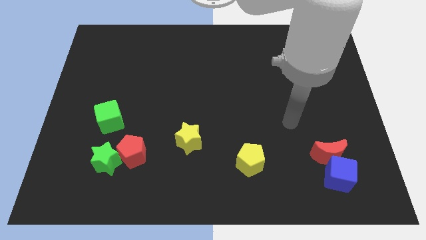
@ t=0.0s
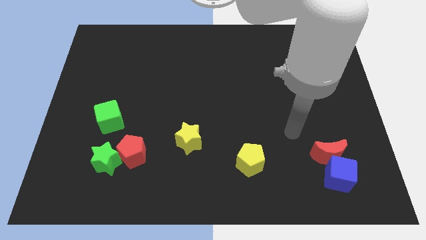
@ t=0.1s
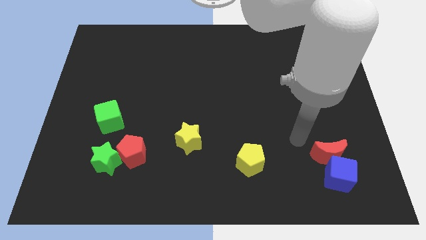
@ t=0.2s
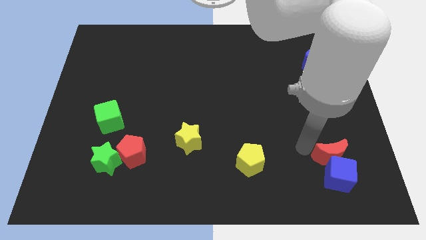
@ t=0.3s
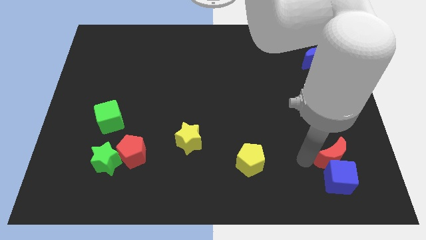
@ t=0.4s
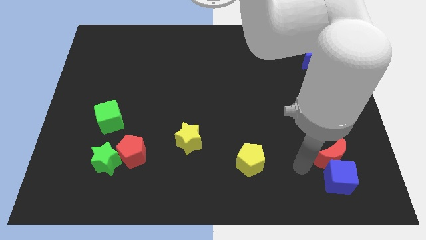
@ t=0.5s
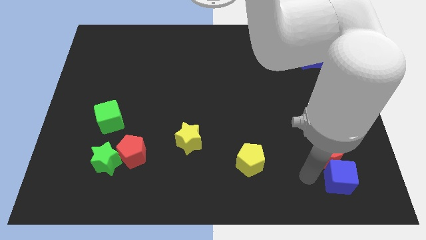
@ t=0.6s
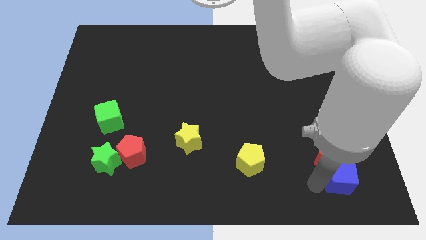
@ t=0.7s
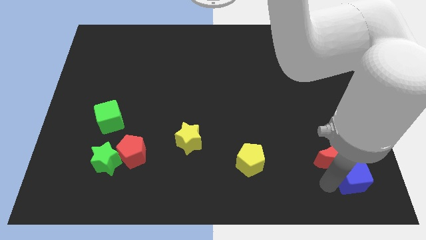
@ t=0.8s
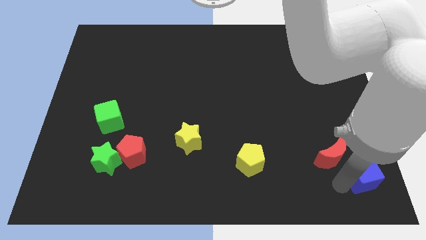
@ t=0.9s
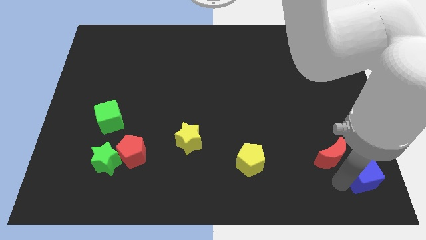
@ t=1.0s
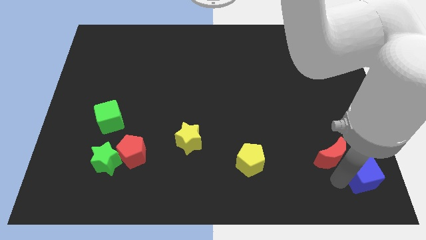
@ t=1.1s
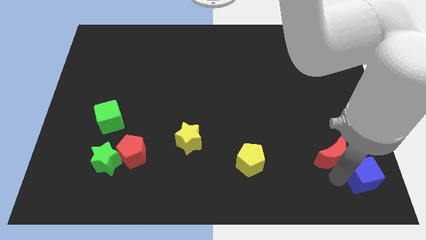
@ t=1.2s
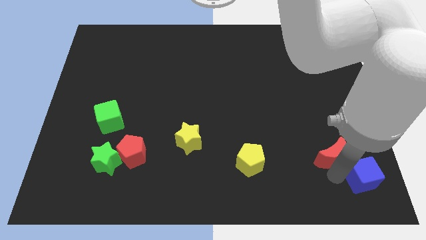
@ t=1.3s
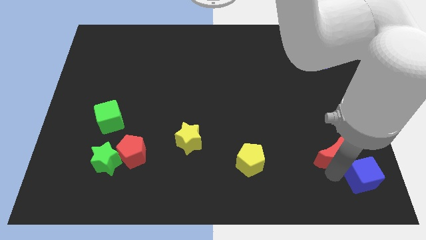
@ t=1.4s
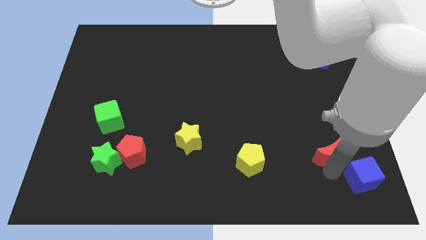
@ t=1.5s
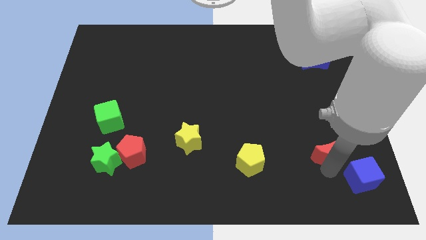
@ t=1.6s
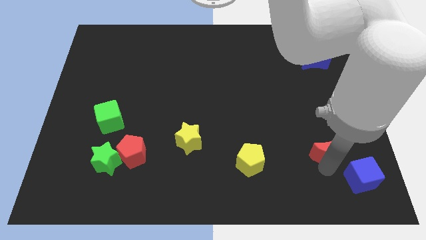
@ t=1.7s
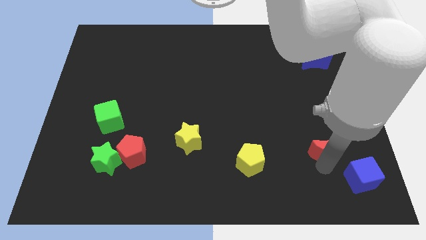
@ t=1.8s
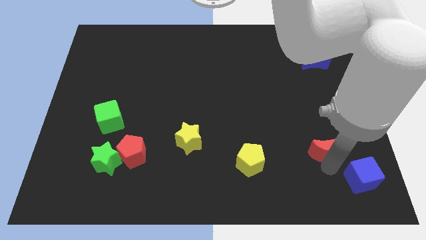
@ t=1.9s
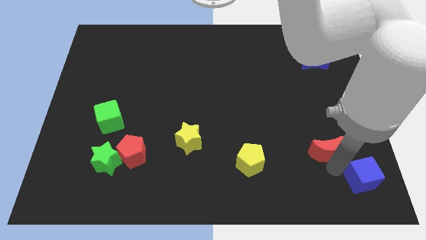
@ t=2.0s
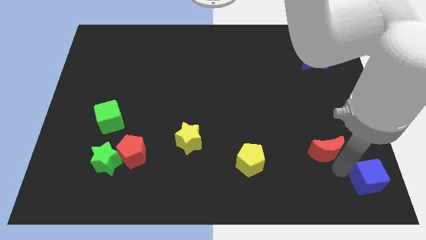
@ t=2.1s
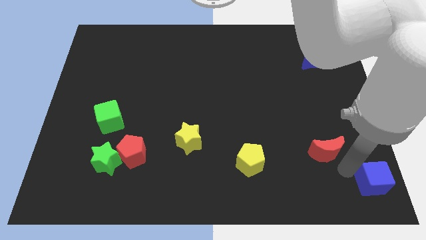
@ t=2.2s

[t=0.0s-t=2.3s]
separate the red moon from the blue cube

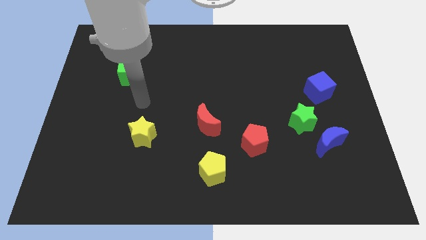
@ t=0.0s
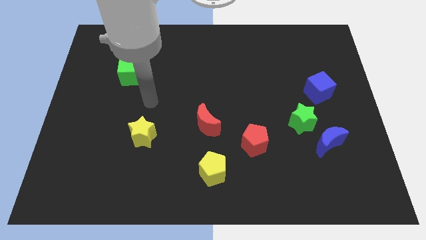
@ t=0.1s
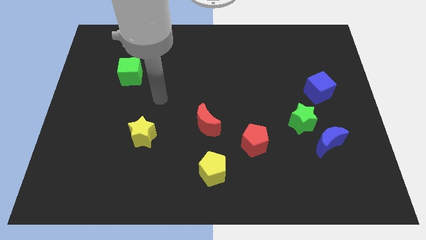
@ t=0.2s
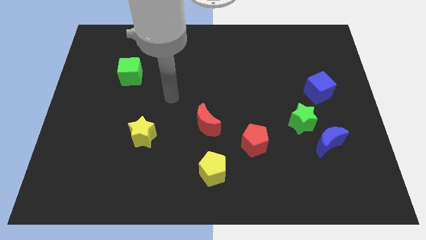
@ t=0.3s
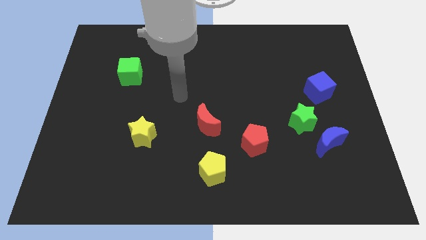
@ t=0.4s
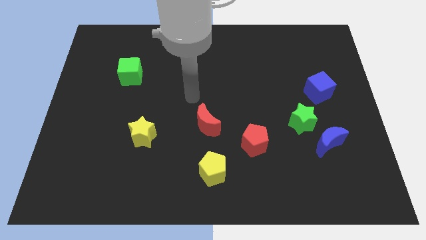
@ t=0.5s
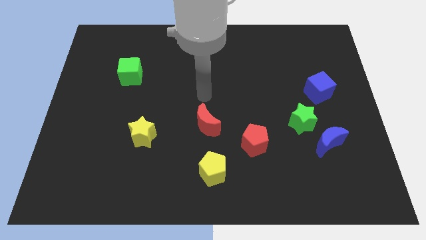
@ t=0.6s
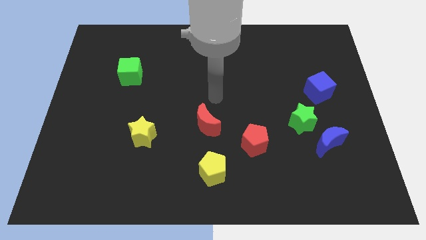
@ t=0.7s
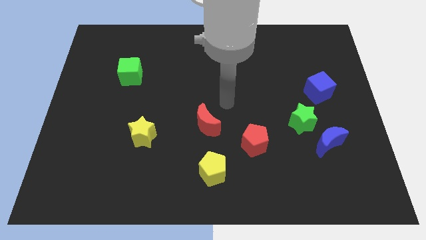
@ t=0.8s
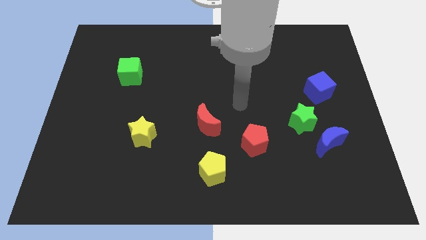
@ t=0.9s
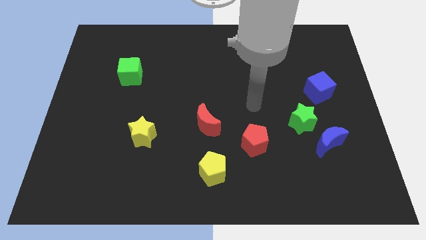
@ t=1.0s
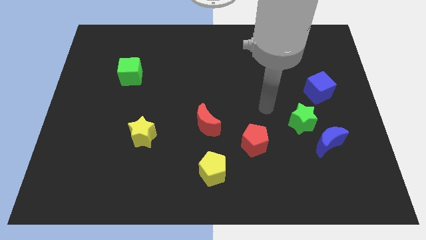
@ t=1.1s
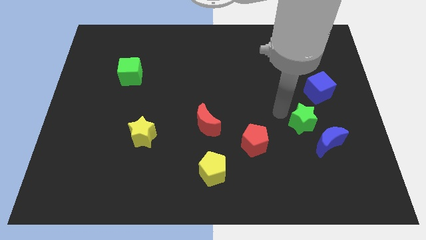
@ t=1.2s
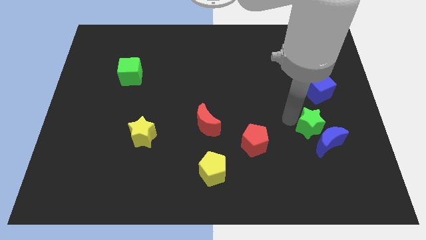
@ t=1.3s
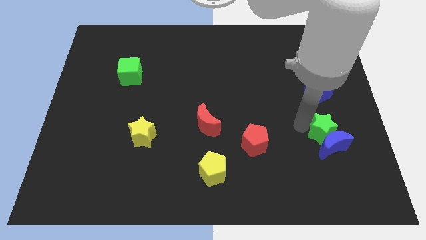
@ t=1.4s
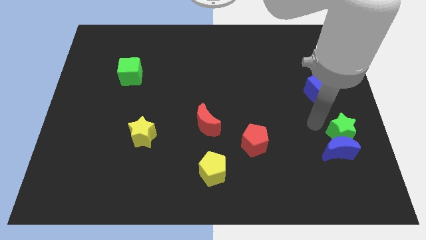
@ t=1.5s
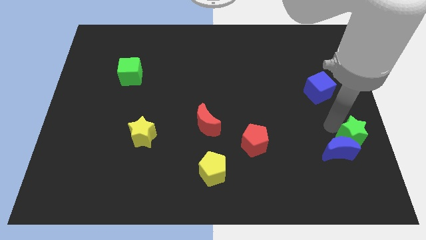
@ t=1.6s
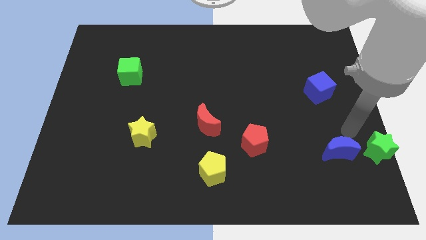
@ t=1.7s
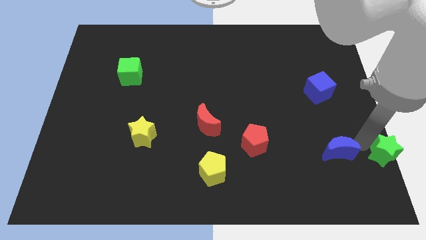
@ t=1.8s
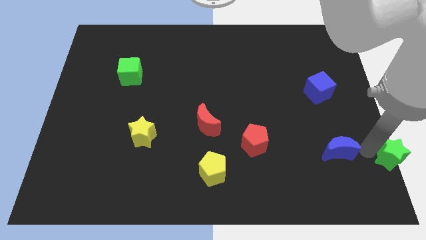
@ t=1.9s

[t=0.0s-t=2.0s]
pull the blue moon apart from the green star

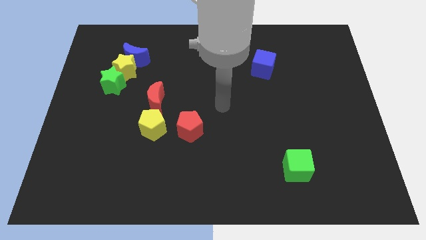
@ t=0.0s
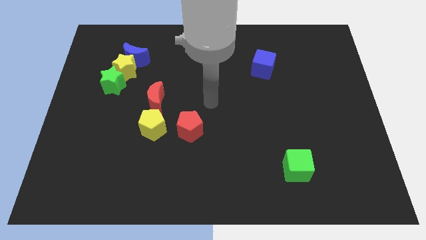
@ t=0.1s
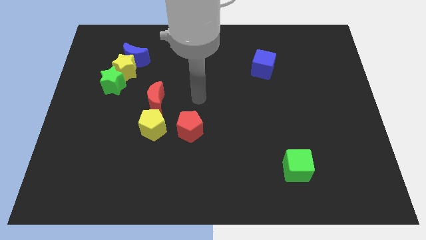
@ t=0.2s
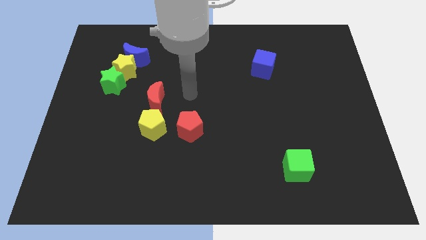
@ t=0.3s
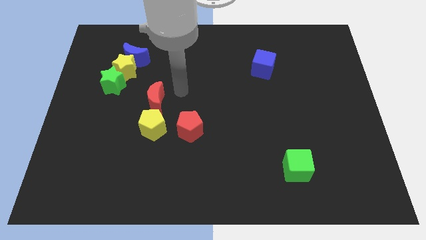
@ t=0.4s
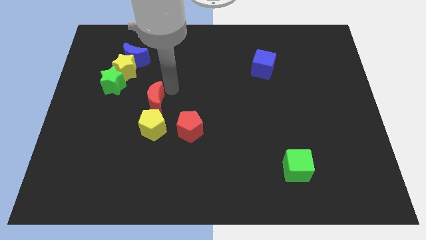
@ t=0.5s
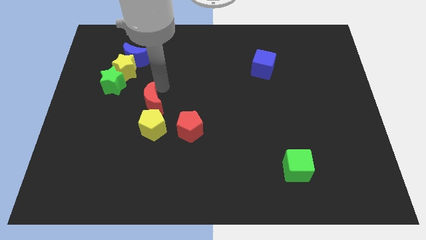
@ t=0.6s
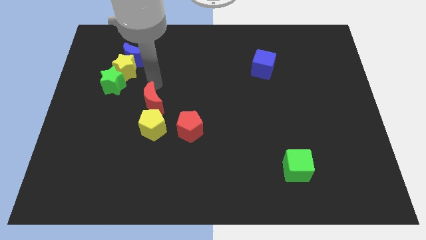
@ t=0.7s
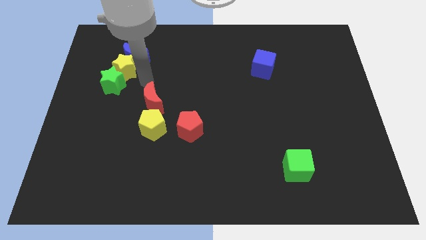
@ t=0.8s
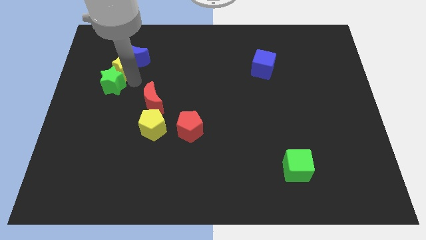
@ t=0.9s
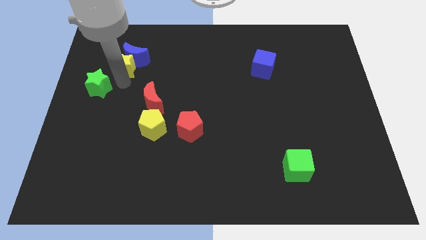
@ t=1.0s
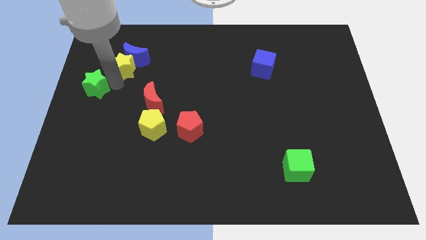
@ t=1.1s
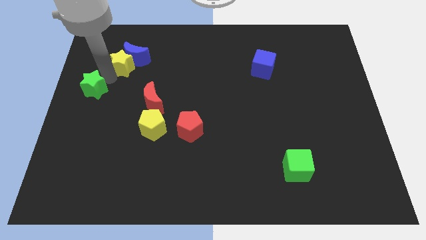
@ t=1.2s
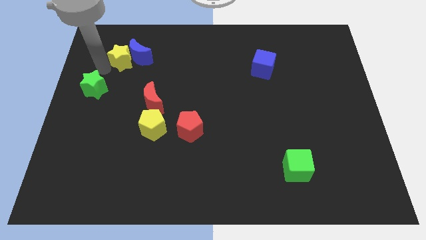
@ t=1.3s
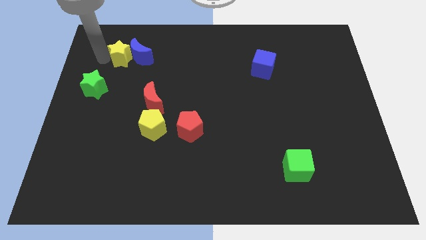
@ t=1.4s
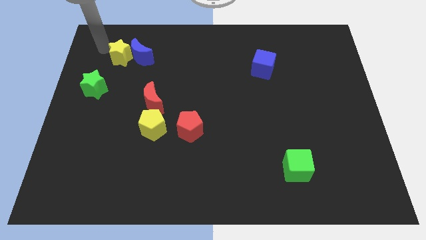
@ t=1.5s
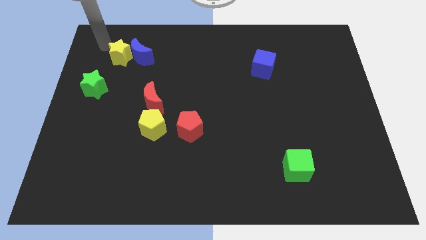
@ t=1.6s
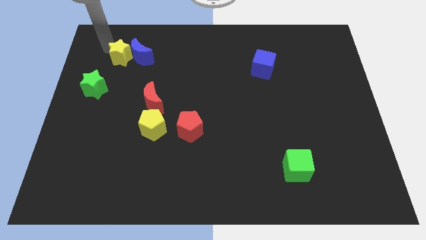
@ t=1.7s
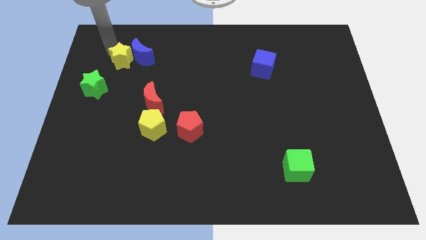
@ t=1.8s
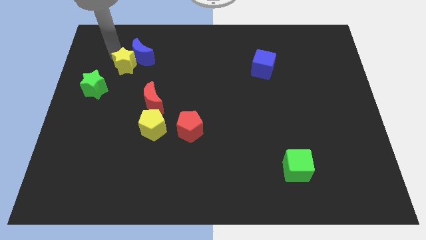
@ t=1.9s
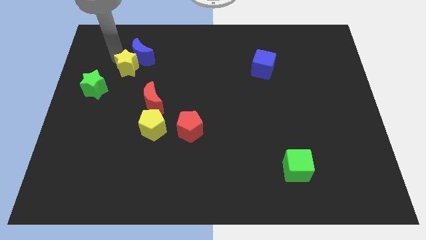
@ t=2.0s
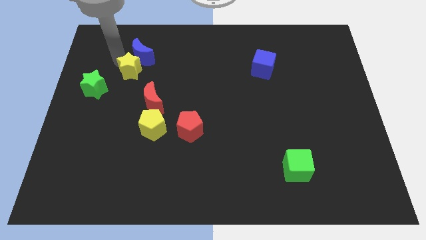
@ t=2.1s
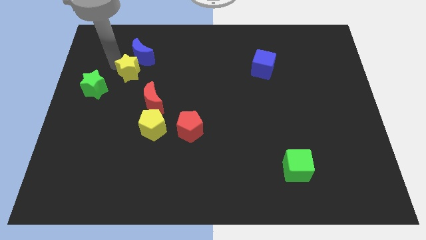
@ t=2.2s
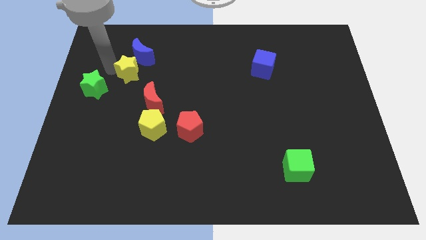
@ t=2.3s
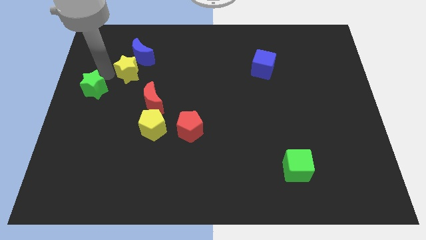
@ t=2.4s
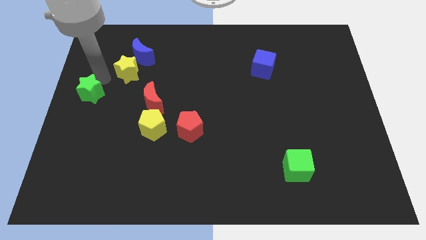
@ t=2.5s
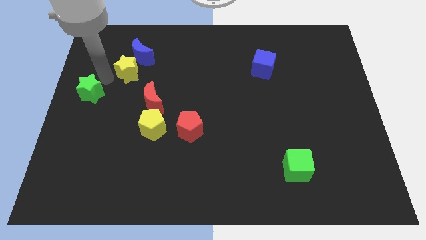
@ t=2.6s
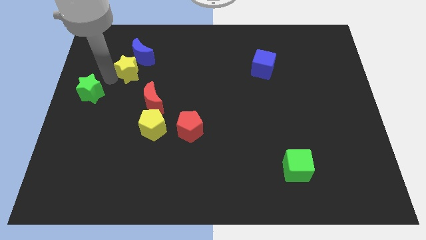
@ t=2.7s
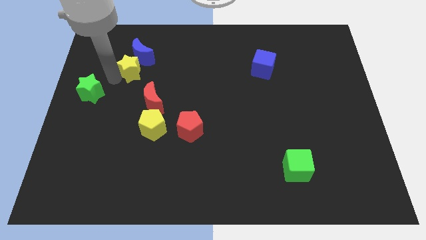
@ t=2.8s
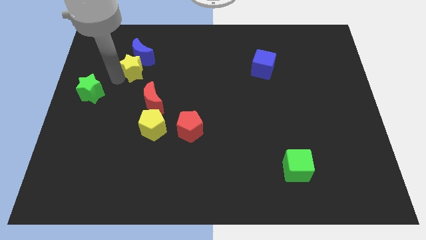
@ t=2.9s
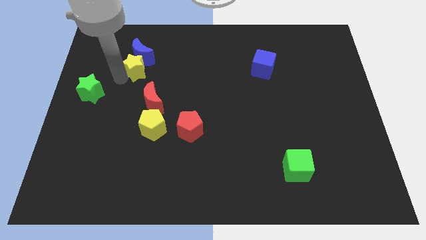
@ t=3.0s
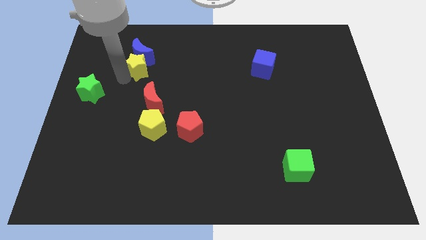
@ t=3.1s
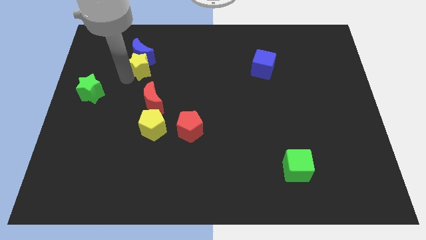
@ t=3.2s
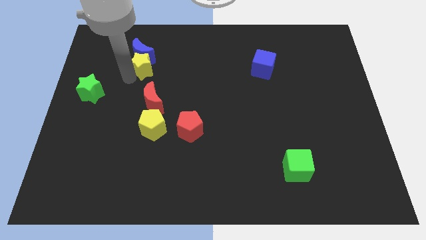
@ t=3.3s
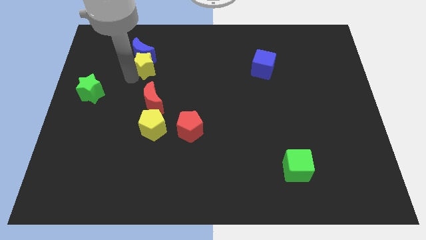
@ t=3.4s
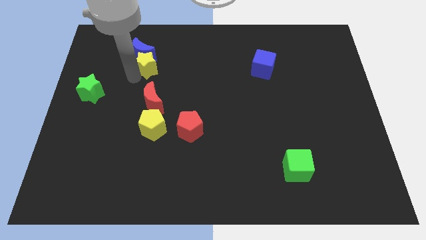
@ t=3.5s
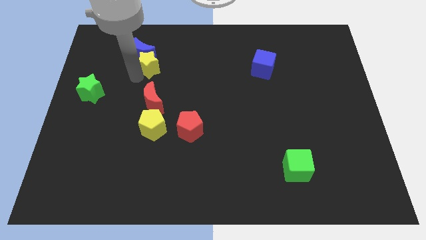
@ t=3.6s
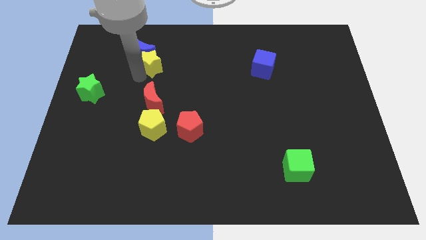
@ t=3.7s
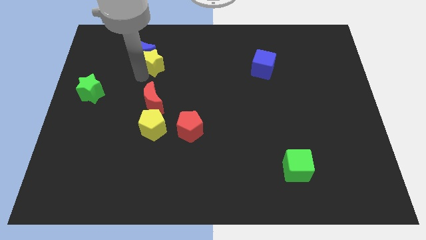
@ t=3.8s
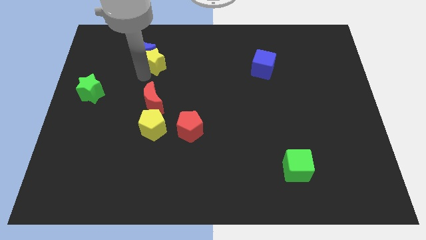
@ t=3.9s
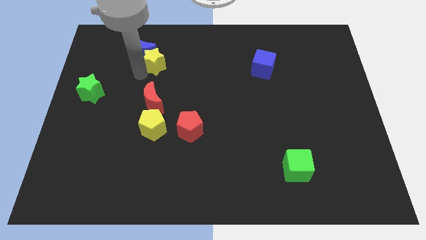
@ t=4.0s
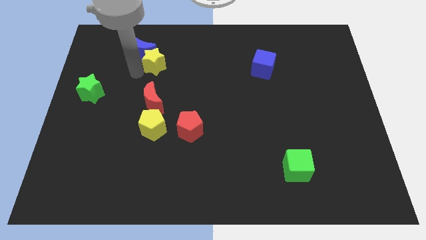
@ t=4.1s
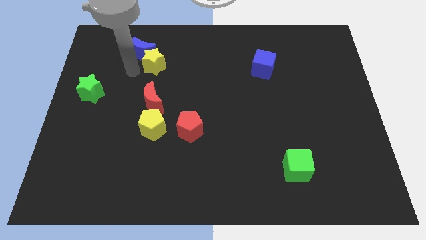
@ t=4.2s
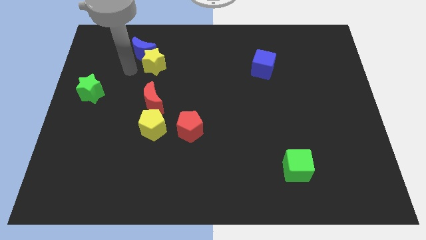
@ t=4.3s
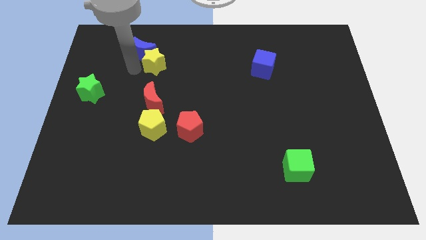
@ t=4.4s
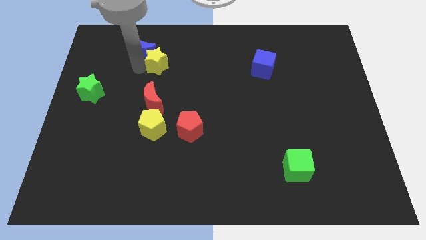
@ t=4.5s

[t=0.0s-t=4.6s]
separate the yellow star from the blue moon and green star

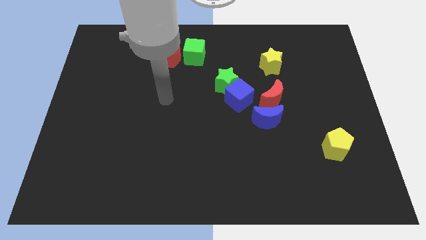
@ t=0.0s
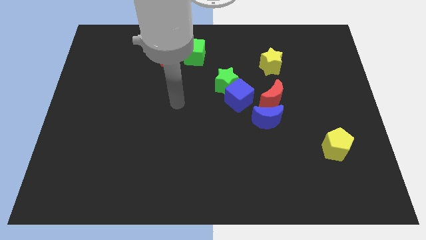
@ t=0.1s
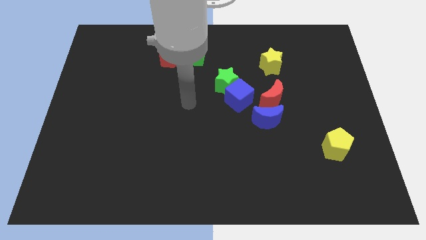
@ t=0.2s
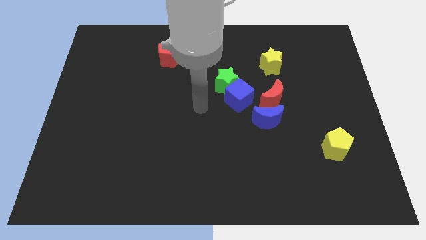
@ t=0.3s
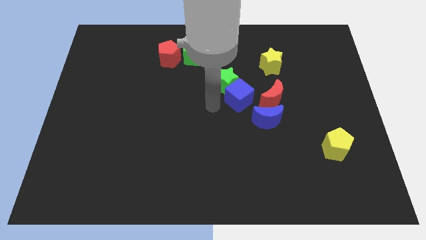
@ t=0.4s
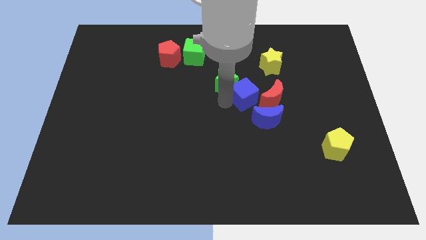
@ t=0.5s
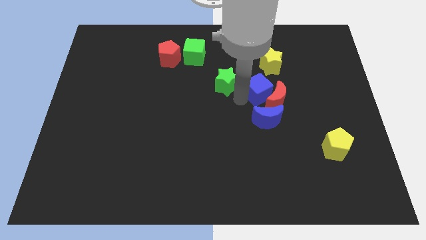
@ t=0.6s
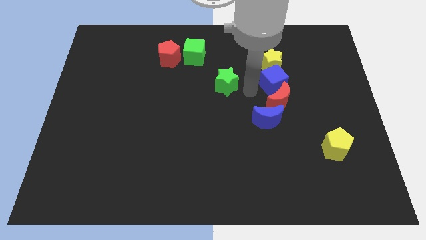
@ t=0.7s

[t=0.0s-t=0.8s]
move the green star away from the blue cube
